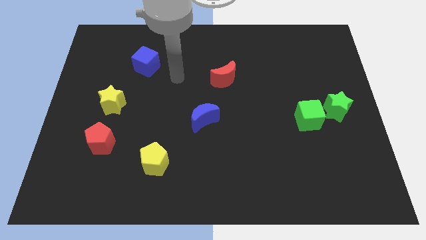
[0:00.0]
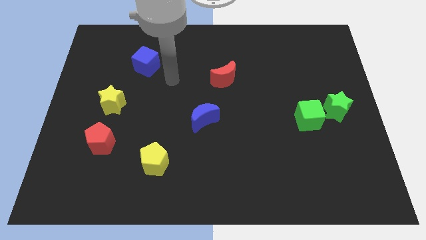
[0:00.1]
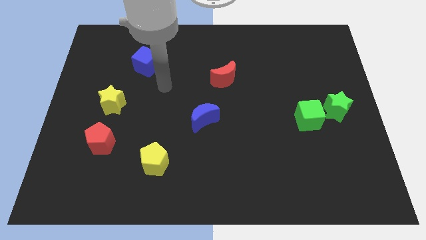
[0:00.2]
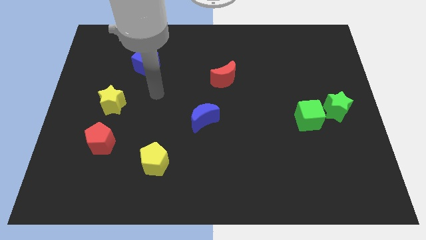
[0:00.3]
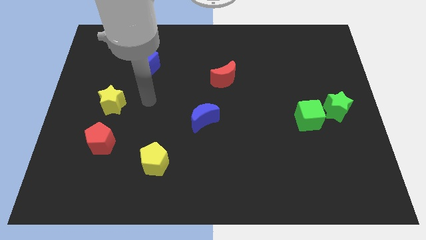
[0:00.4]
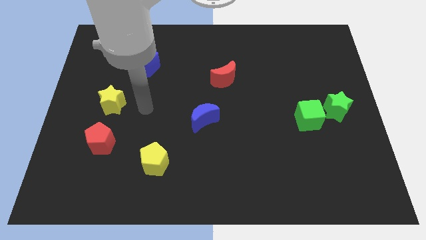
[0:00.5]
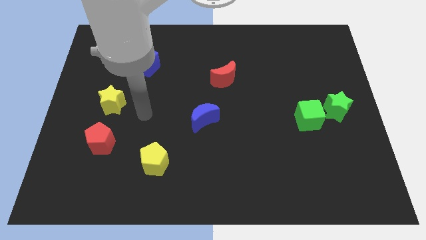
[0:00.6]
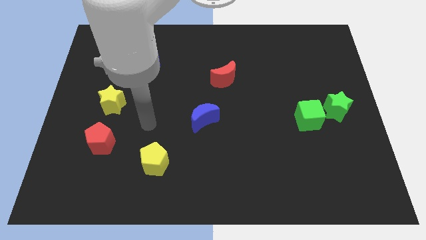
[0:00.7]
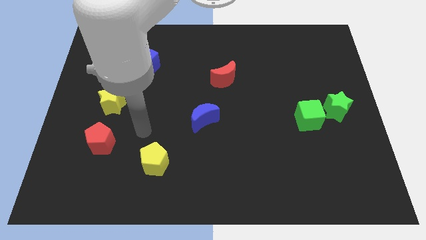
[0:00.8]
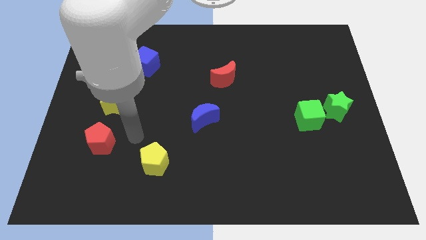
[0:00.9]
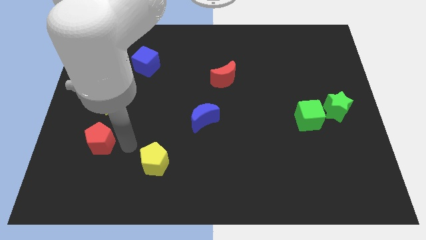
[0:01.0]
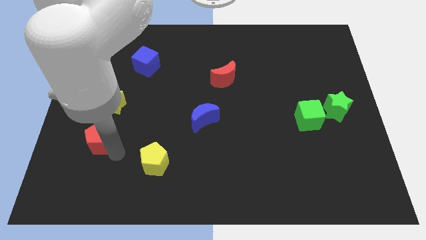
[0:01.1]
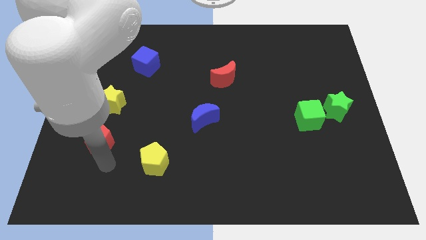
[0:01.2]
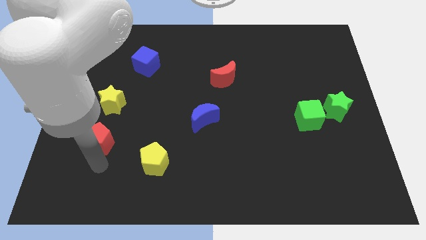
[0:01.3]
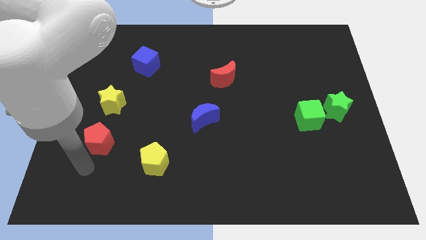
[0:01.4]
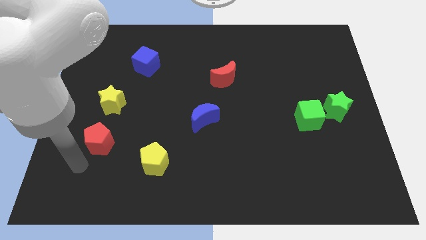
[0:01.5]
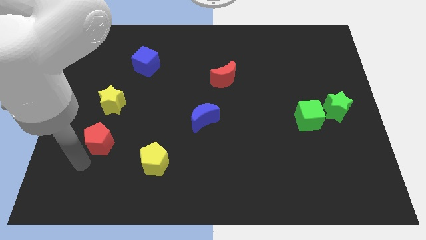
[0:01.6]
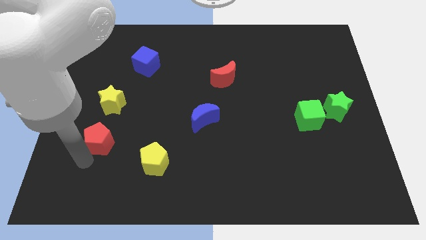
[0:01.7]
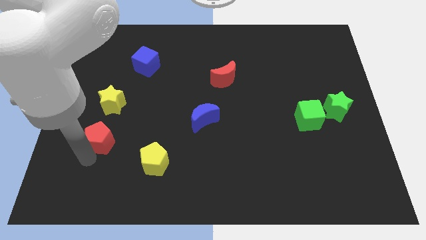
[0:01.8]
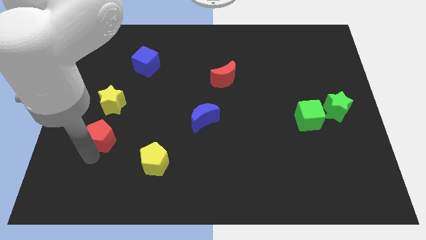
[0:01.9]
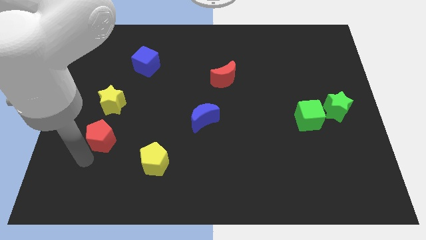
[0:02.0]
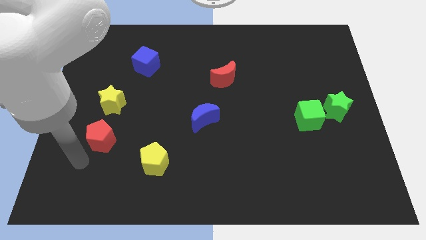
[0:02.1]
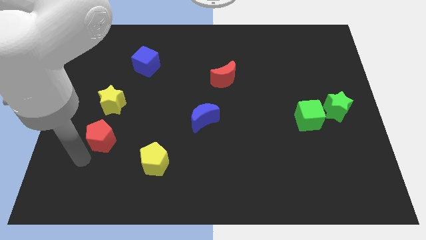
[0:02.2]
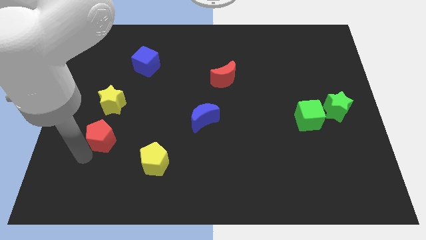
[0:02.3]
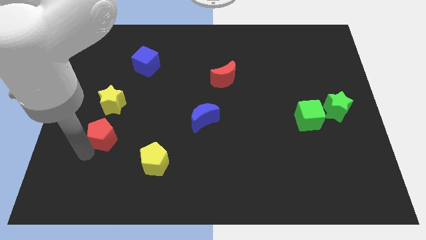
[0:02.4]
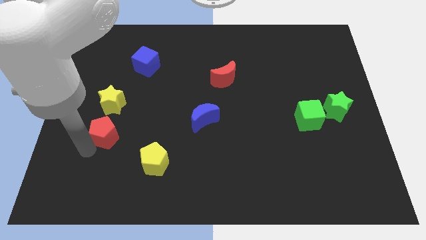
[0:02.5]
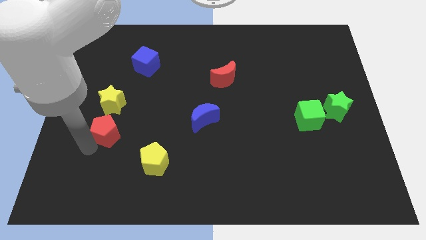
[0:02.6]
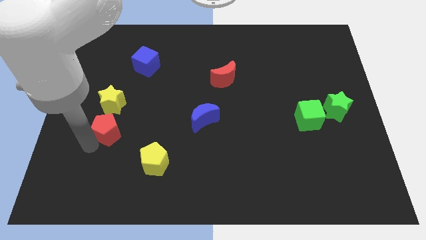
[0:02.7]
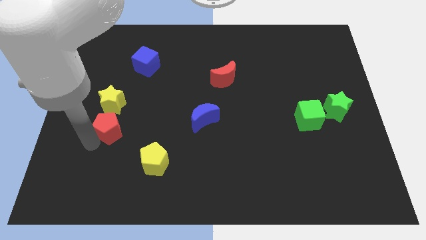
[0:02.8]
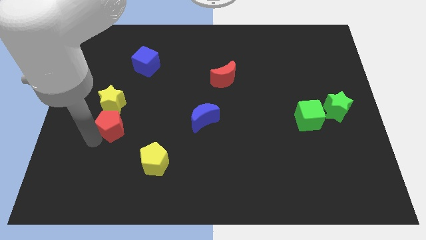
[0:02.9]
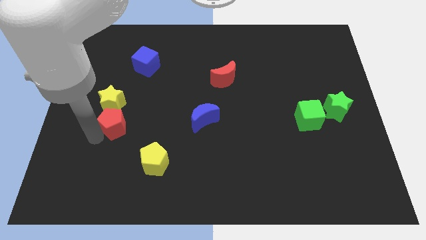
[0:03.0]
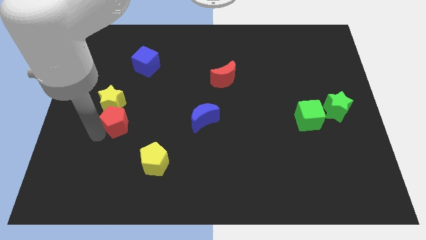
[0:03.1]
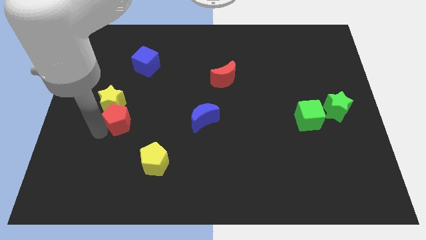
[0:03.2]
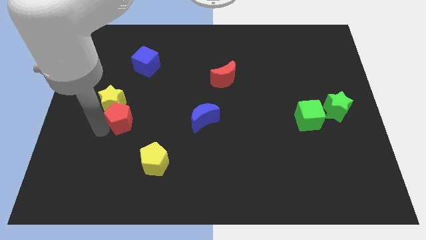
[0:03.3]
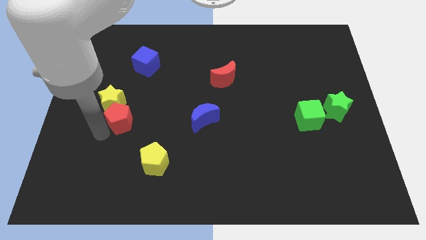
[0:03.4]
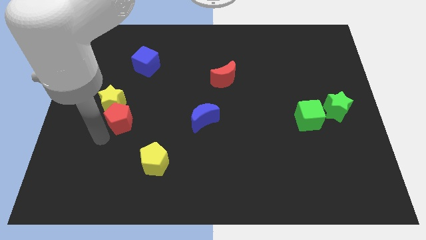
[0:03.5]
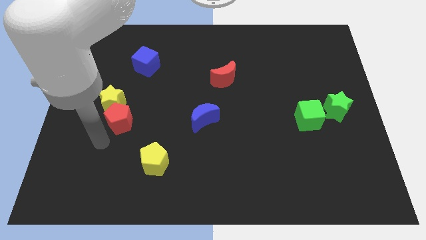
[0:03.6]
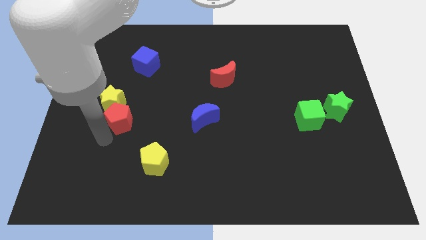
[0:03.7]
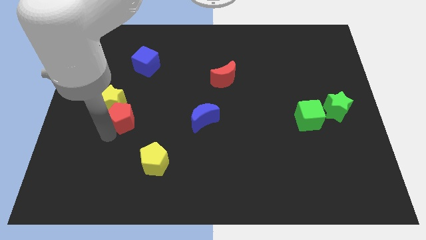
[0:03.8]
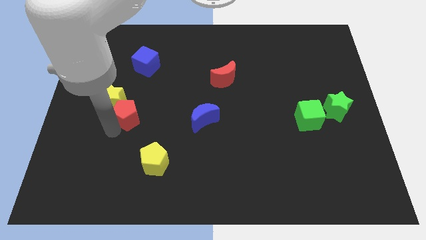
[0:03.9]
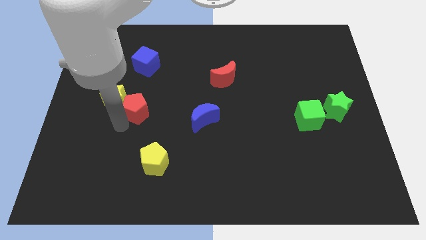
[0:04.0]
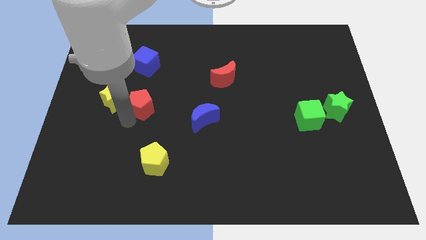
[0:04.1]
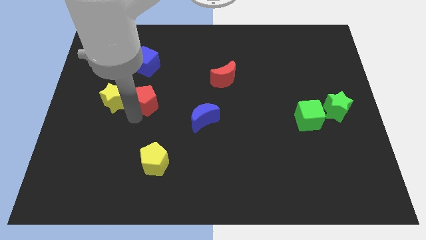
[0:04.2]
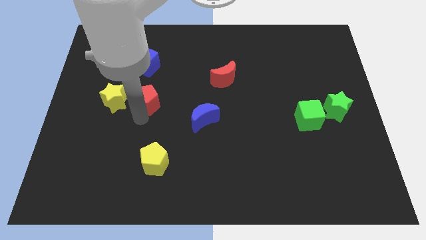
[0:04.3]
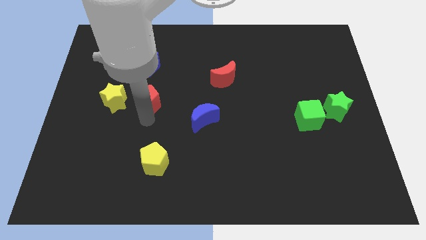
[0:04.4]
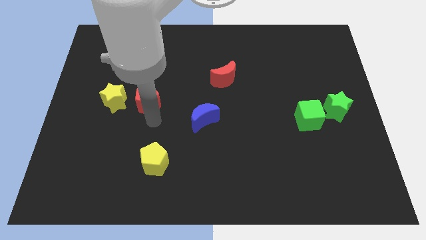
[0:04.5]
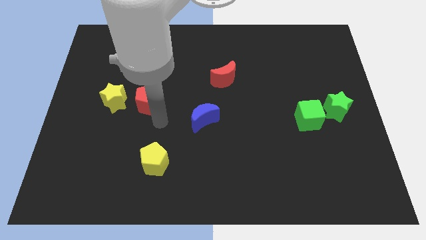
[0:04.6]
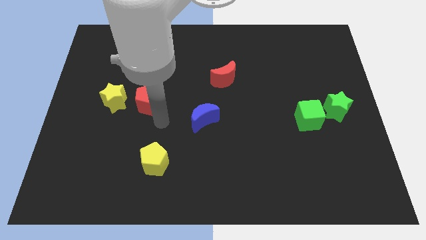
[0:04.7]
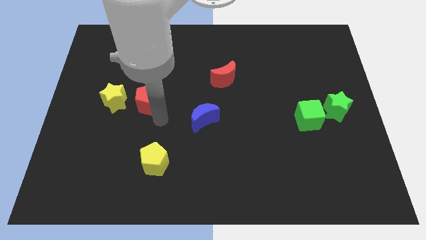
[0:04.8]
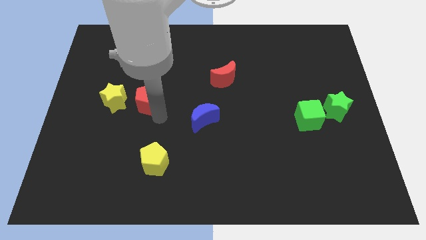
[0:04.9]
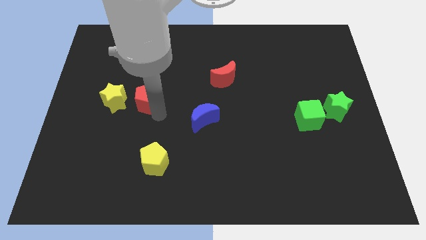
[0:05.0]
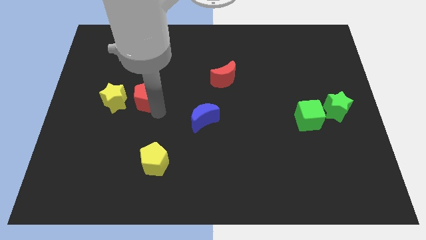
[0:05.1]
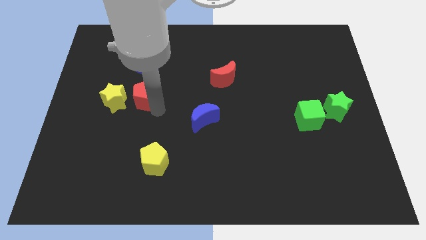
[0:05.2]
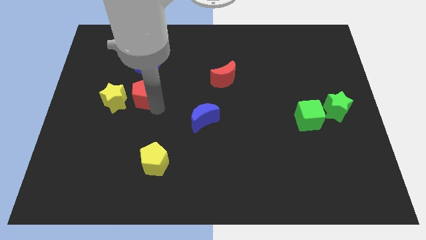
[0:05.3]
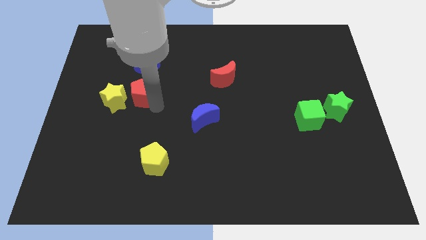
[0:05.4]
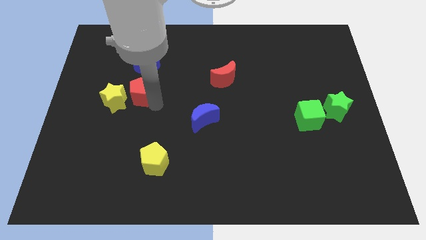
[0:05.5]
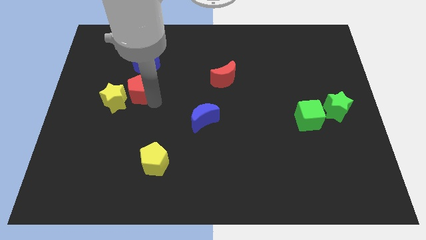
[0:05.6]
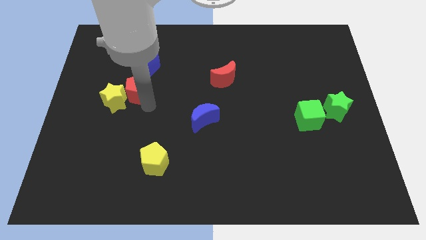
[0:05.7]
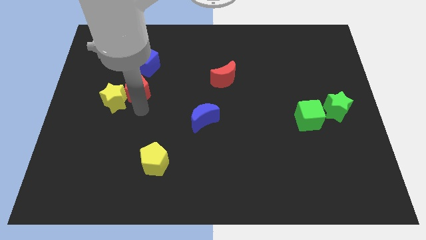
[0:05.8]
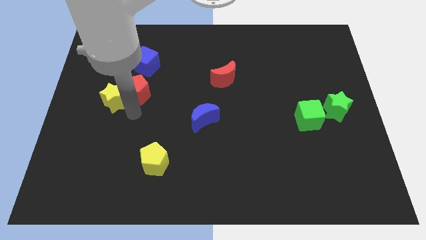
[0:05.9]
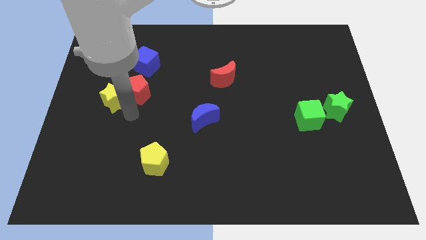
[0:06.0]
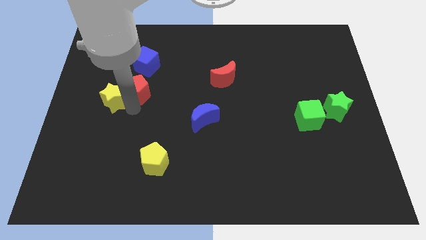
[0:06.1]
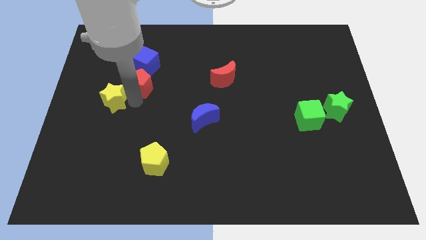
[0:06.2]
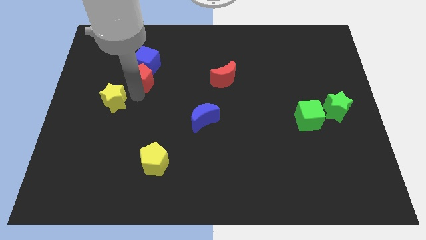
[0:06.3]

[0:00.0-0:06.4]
push the red pentagon next to the blue cube

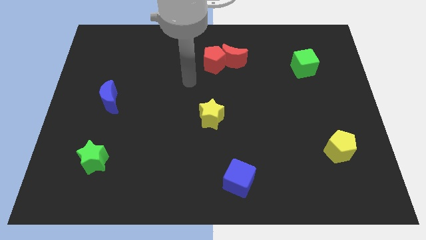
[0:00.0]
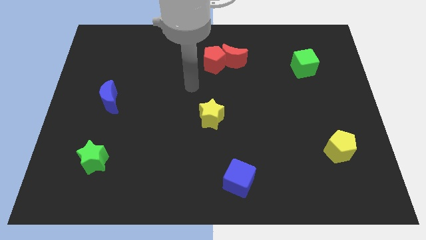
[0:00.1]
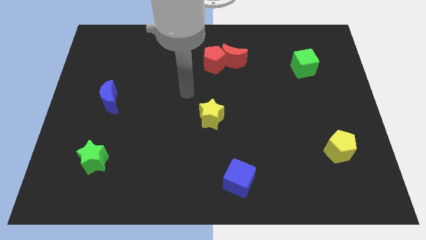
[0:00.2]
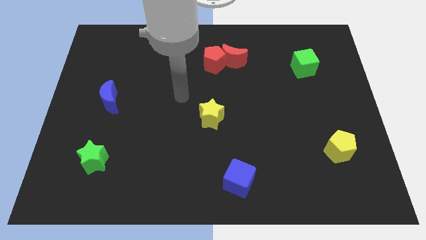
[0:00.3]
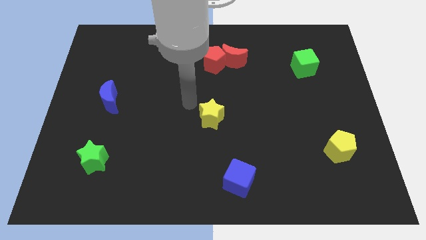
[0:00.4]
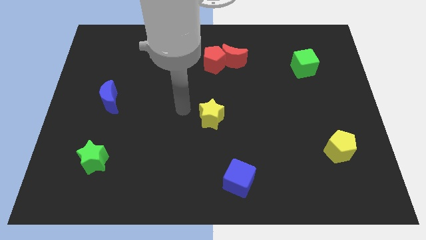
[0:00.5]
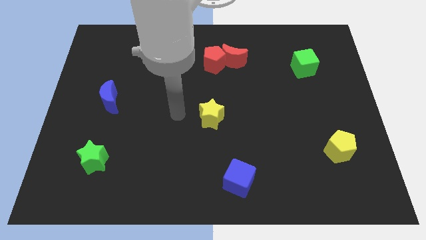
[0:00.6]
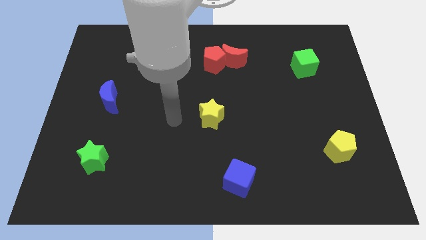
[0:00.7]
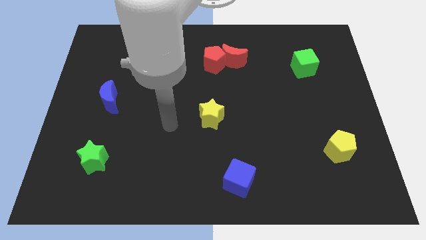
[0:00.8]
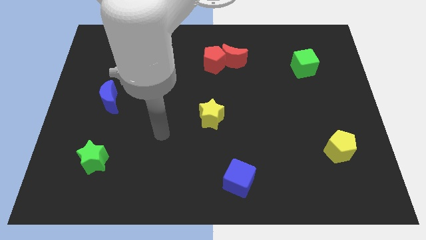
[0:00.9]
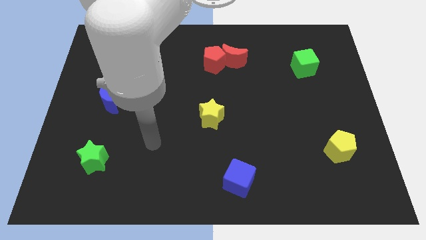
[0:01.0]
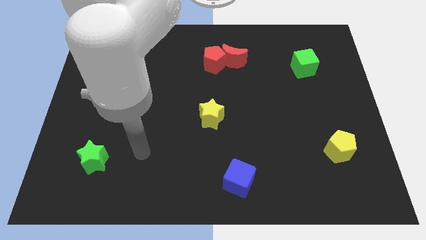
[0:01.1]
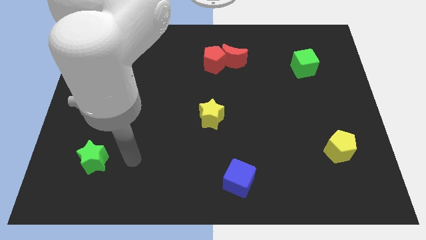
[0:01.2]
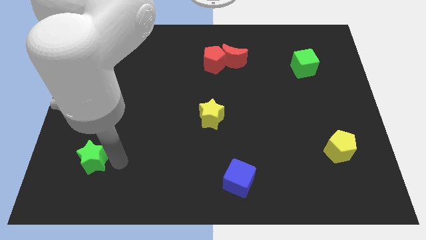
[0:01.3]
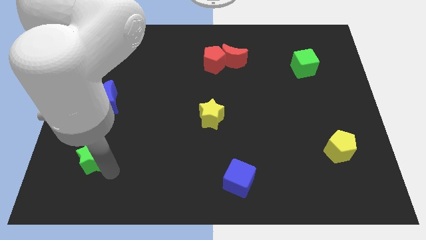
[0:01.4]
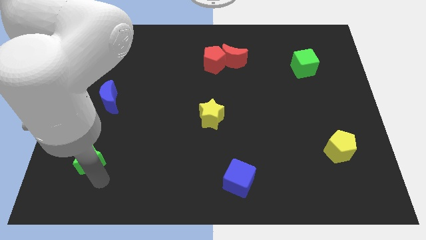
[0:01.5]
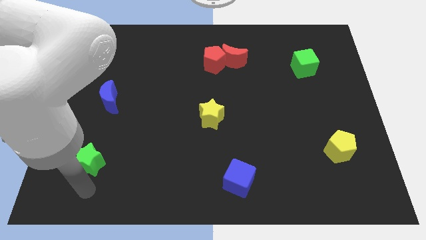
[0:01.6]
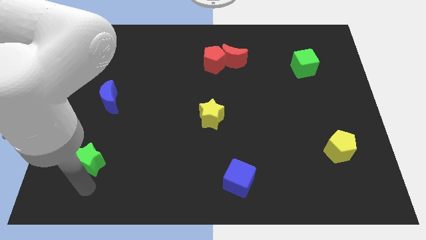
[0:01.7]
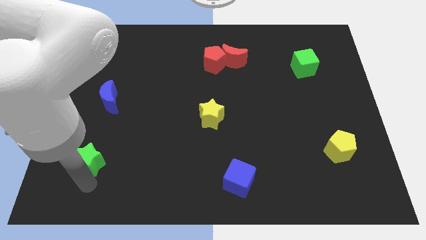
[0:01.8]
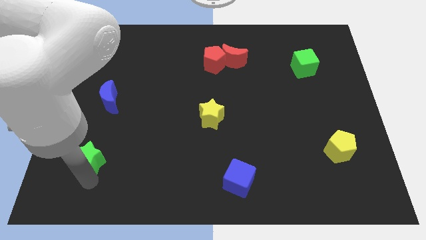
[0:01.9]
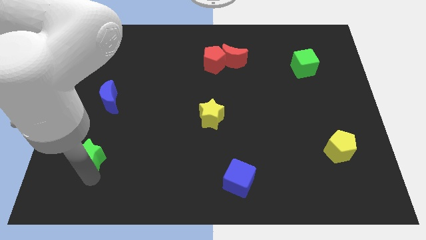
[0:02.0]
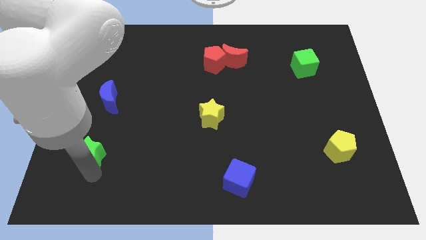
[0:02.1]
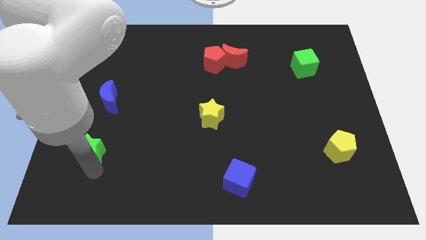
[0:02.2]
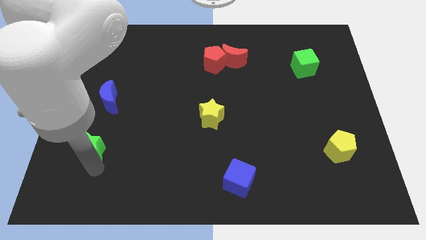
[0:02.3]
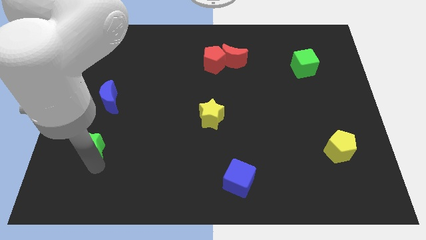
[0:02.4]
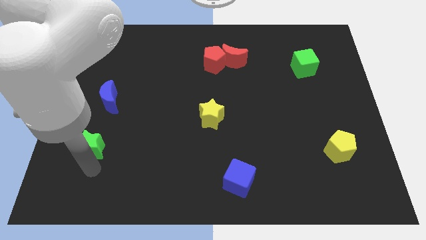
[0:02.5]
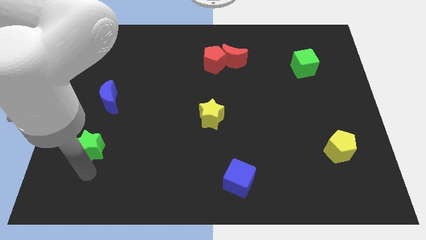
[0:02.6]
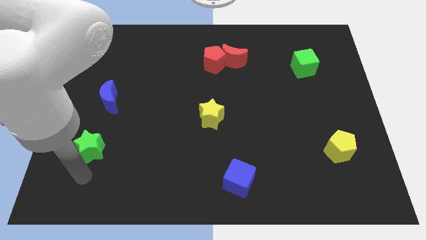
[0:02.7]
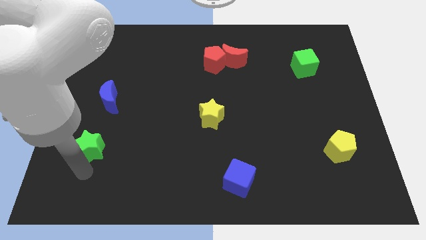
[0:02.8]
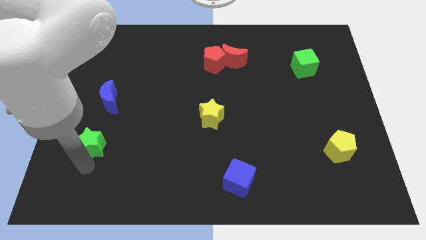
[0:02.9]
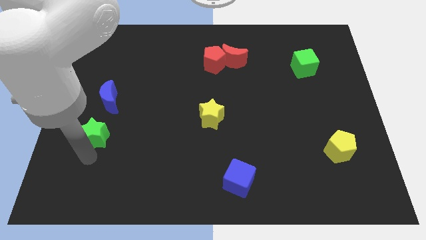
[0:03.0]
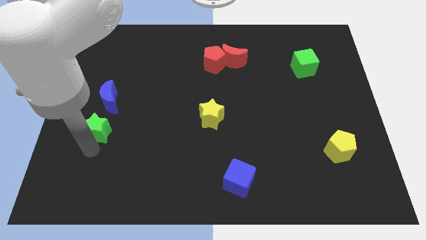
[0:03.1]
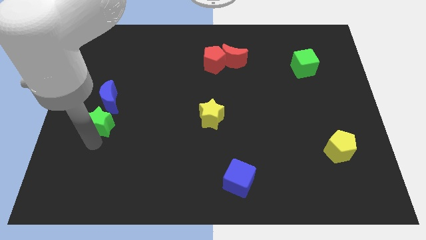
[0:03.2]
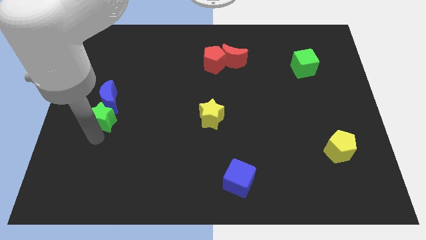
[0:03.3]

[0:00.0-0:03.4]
put the green star close to the blue moon
